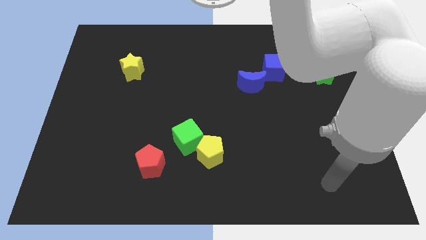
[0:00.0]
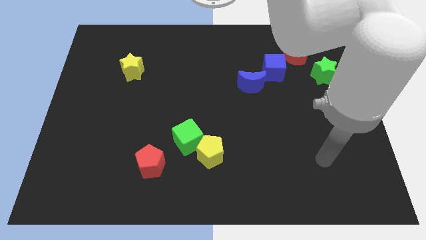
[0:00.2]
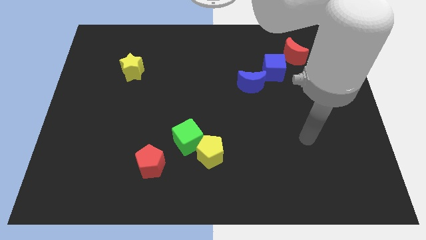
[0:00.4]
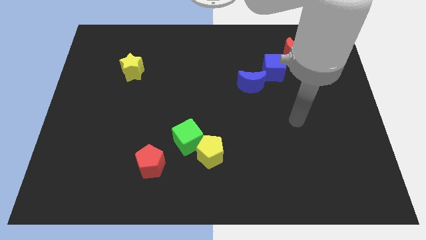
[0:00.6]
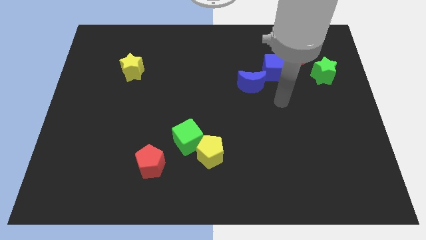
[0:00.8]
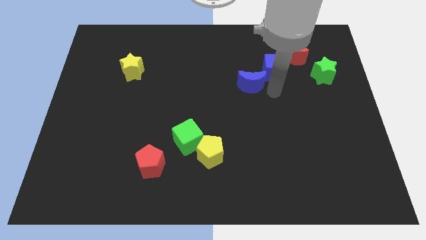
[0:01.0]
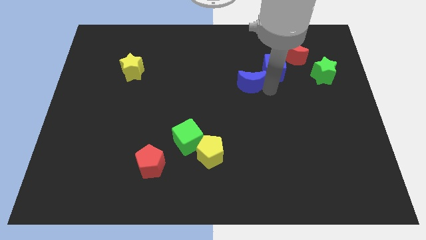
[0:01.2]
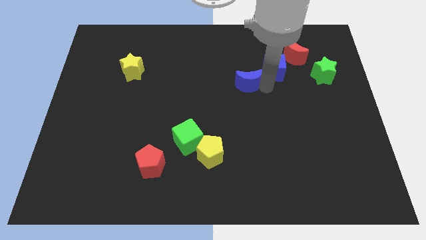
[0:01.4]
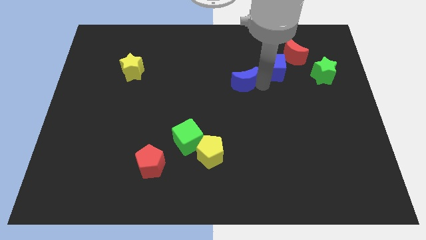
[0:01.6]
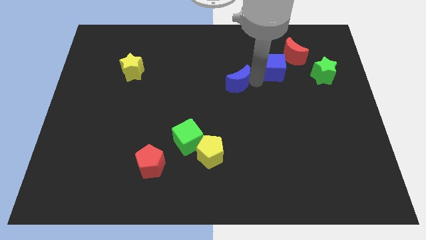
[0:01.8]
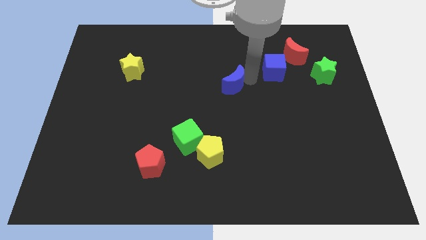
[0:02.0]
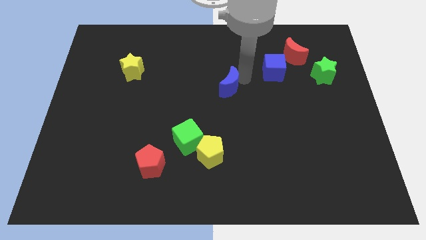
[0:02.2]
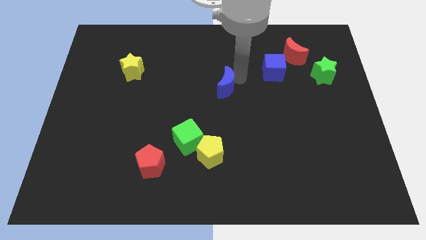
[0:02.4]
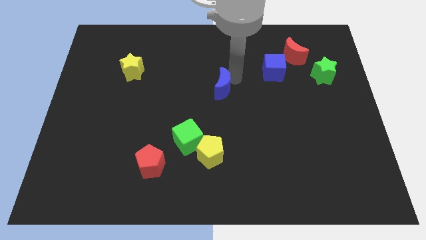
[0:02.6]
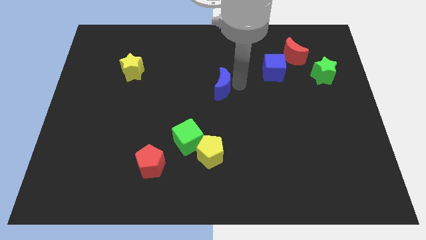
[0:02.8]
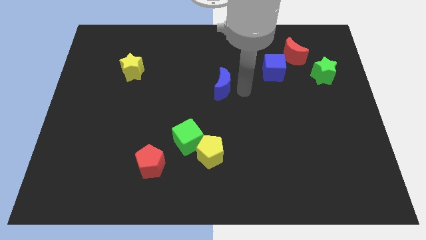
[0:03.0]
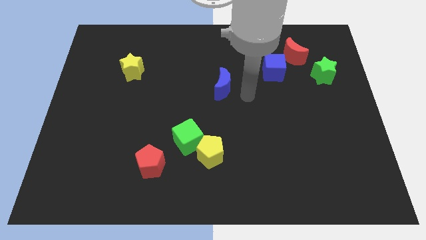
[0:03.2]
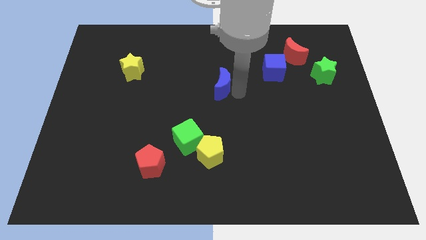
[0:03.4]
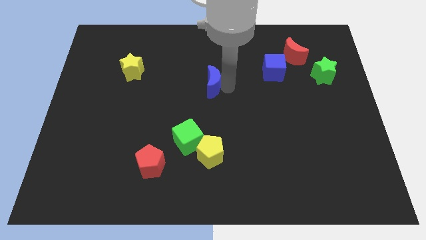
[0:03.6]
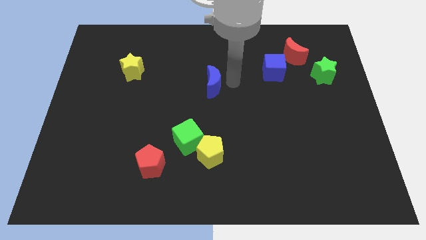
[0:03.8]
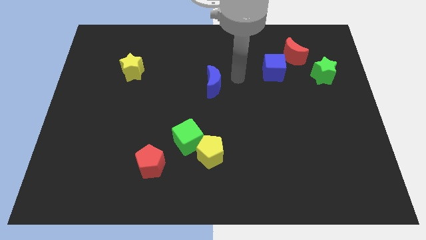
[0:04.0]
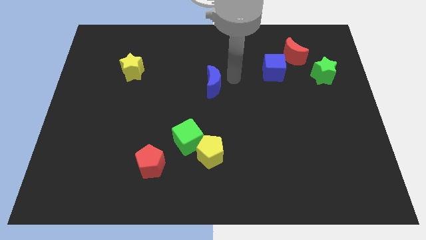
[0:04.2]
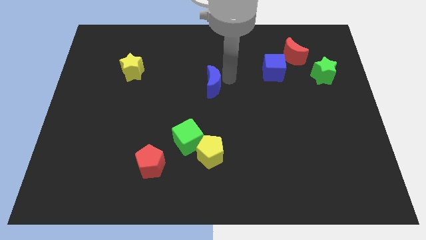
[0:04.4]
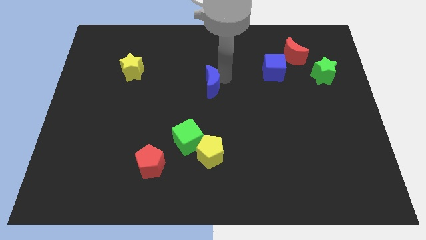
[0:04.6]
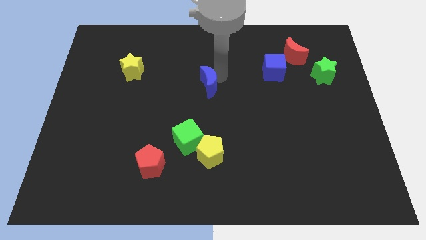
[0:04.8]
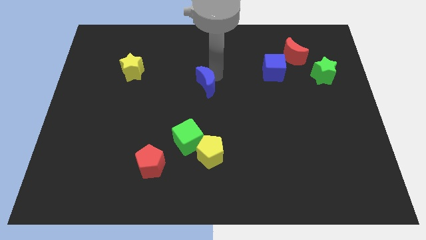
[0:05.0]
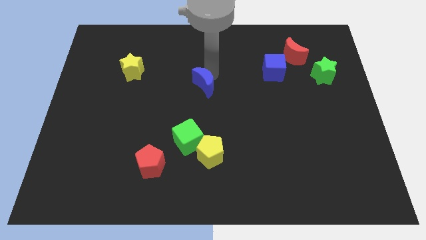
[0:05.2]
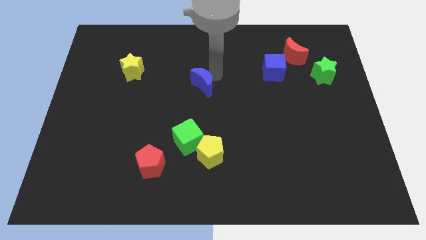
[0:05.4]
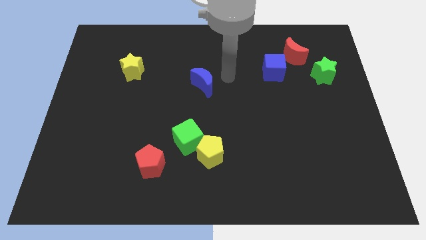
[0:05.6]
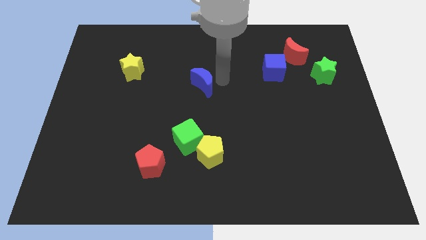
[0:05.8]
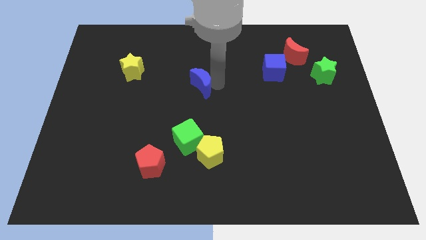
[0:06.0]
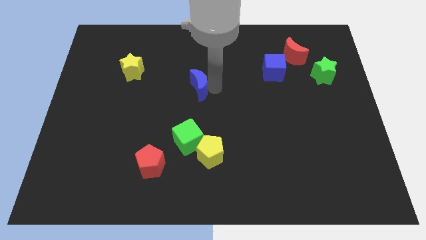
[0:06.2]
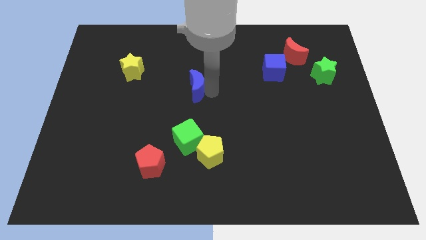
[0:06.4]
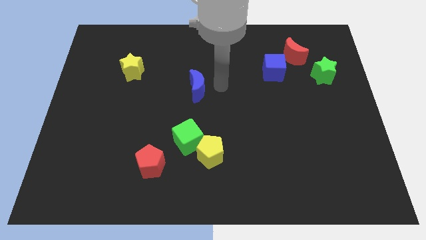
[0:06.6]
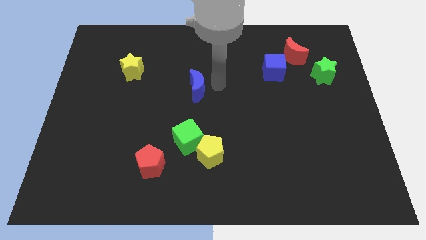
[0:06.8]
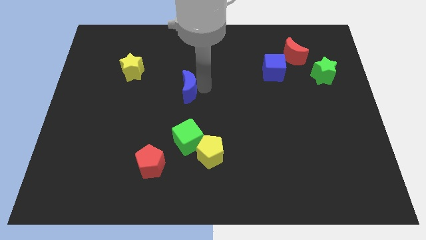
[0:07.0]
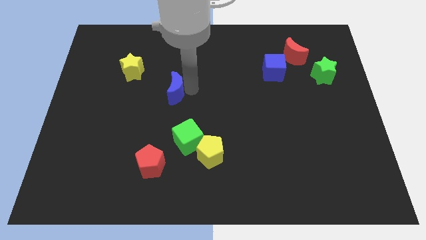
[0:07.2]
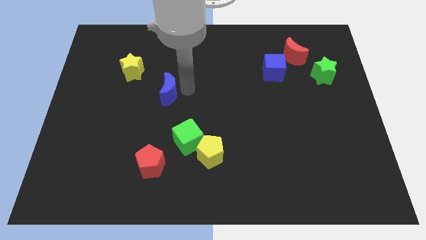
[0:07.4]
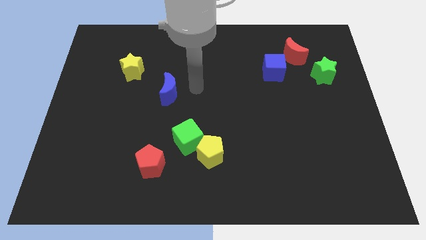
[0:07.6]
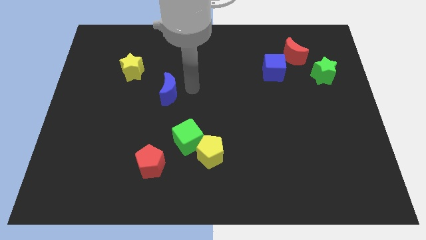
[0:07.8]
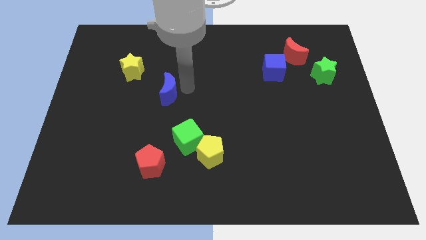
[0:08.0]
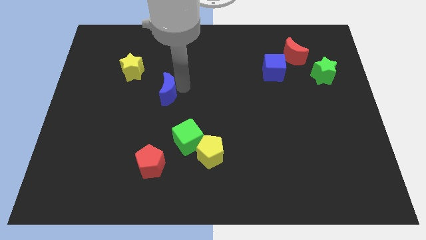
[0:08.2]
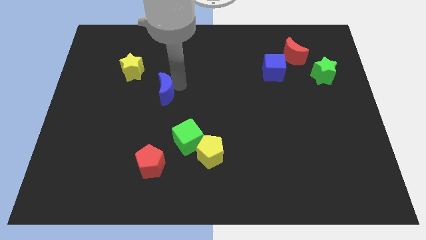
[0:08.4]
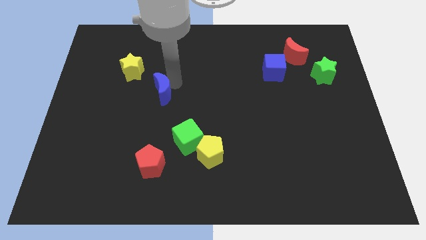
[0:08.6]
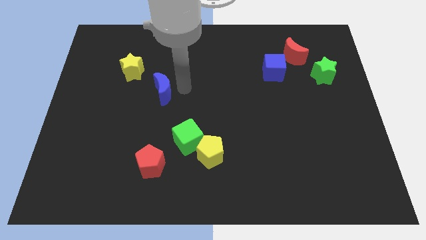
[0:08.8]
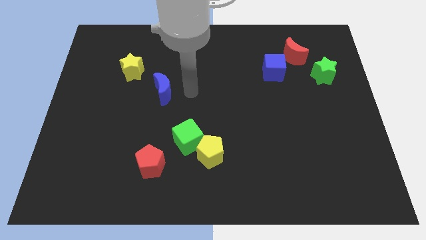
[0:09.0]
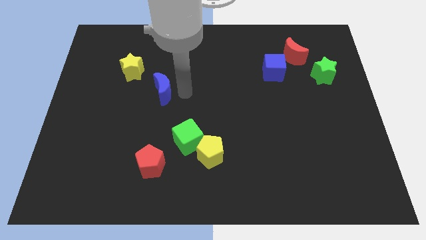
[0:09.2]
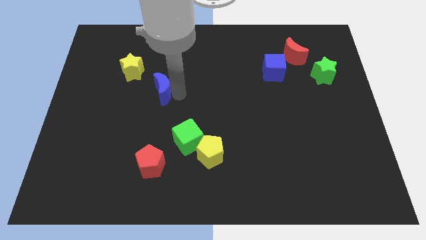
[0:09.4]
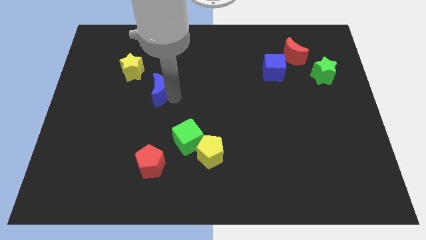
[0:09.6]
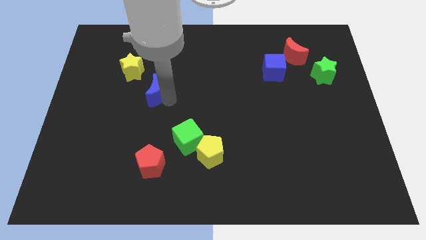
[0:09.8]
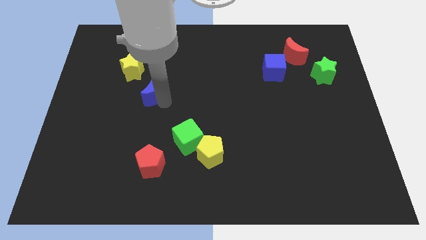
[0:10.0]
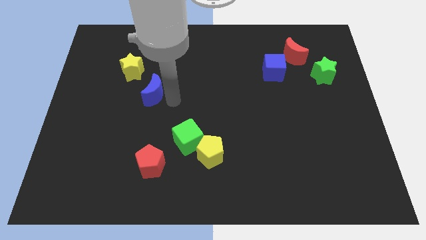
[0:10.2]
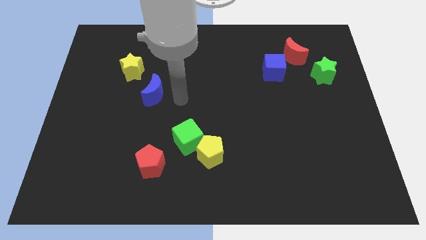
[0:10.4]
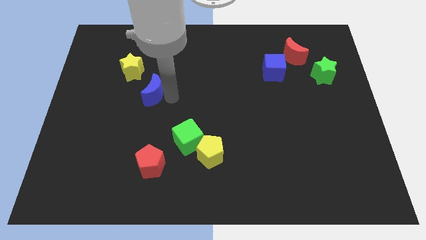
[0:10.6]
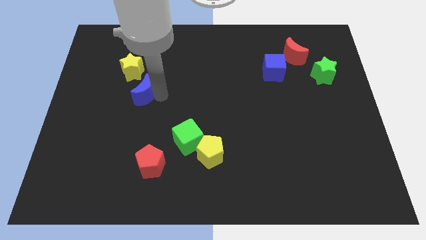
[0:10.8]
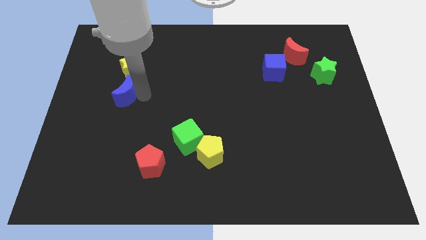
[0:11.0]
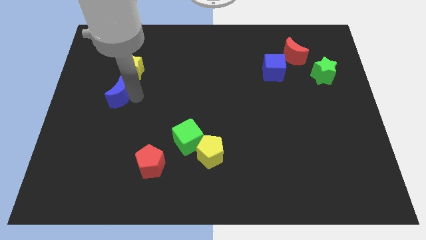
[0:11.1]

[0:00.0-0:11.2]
slide the blue moon to the bottom left side of the yellow star

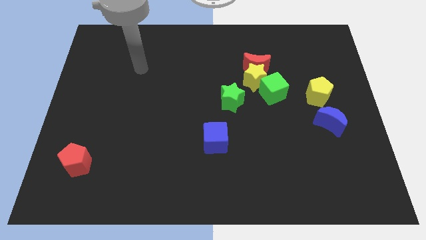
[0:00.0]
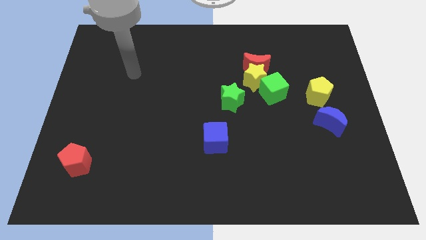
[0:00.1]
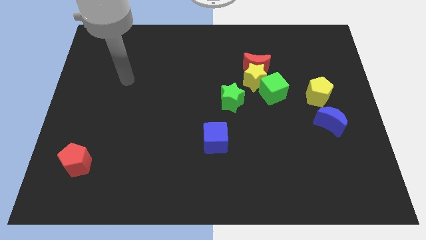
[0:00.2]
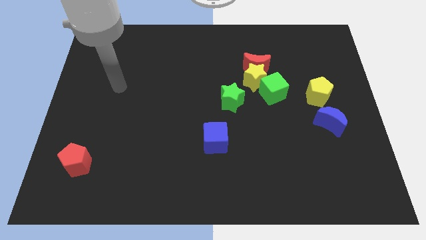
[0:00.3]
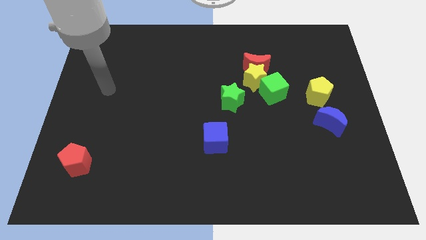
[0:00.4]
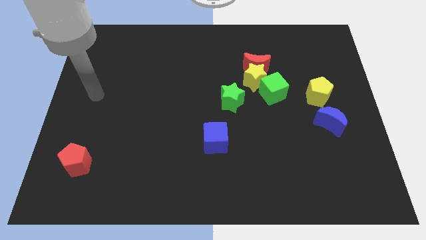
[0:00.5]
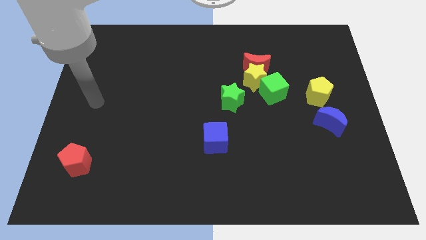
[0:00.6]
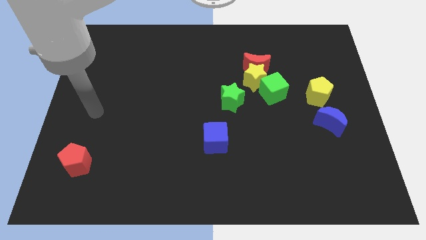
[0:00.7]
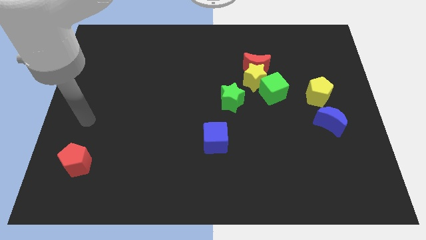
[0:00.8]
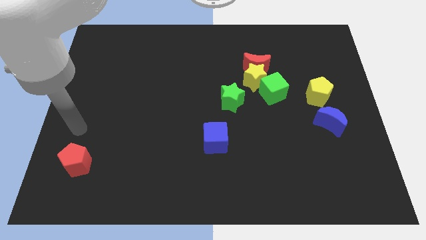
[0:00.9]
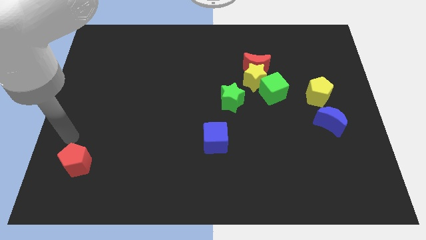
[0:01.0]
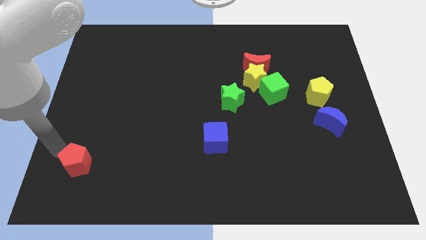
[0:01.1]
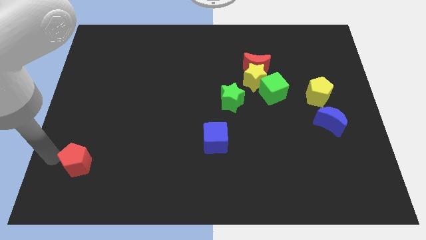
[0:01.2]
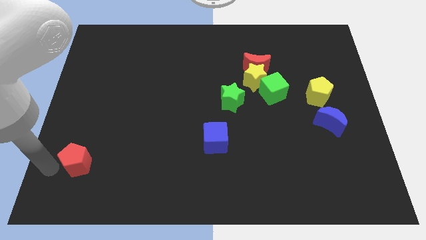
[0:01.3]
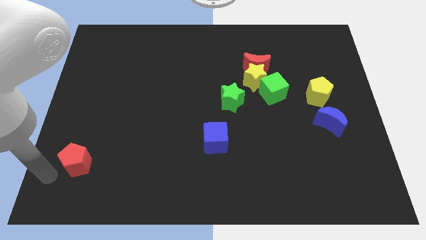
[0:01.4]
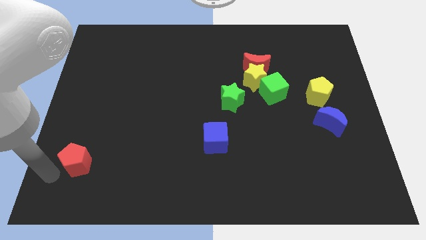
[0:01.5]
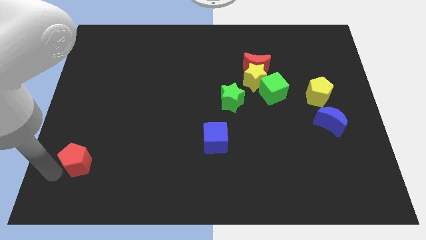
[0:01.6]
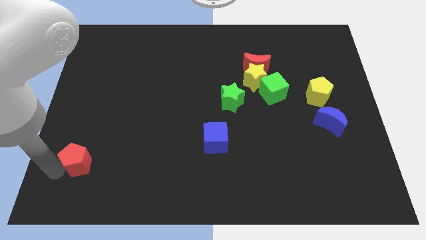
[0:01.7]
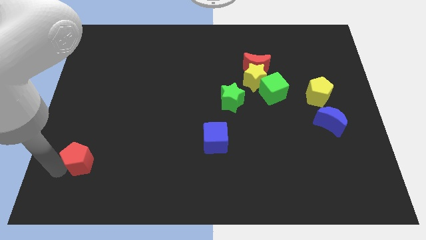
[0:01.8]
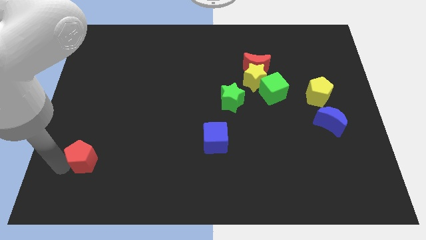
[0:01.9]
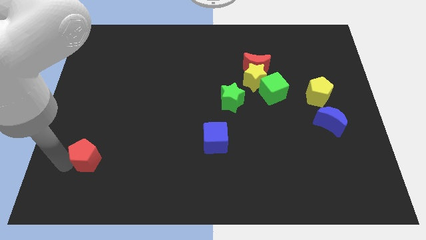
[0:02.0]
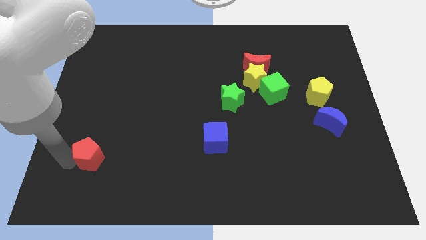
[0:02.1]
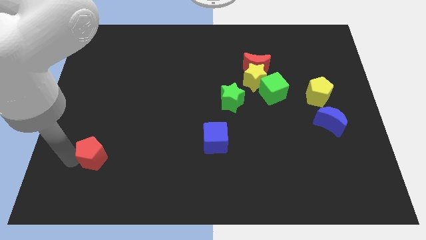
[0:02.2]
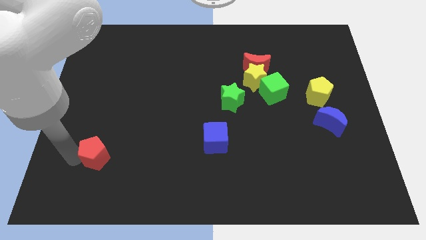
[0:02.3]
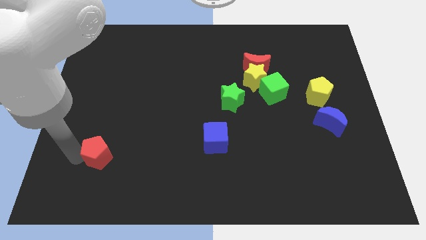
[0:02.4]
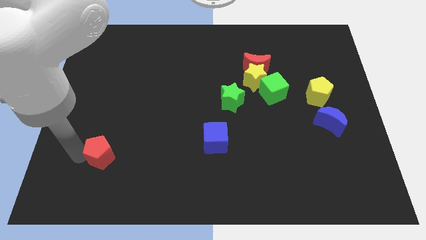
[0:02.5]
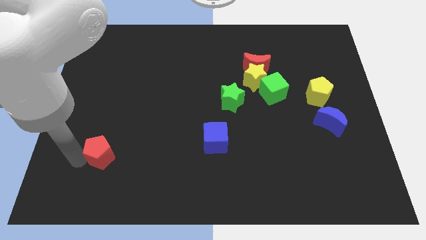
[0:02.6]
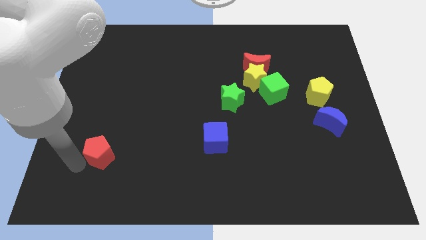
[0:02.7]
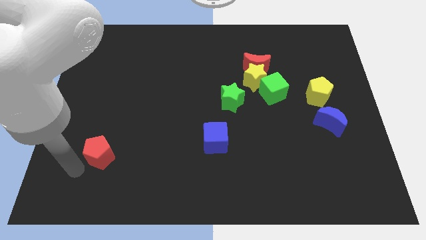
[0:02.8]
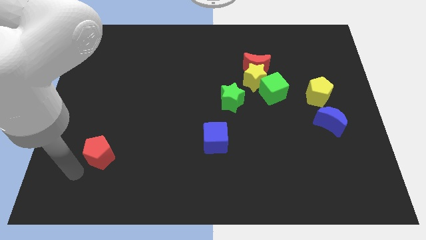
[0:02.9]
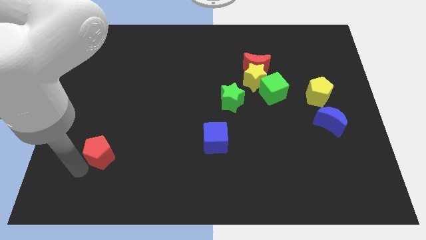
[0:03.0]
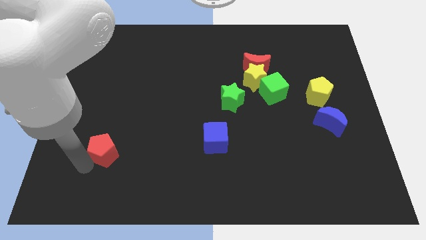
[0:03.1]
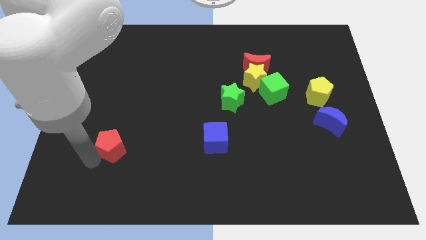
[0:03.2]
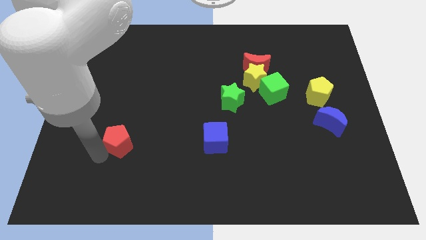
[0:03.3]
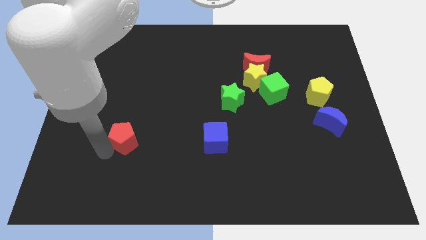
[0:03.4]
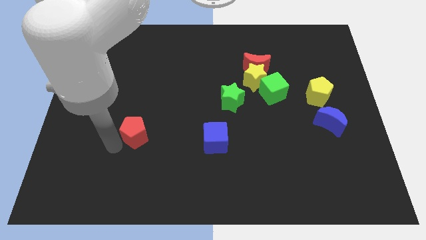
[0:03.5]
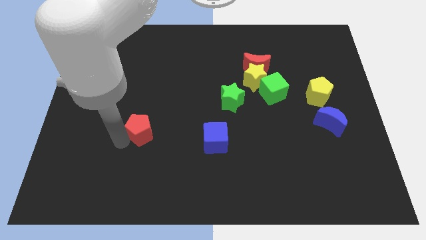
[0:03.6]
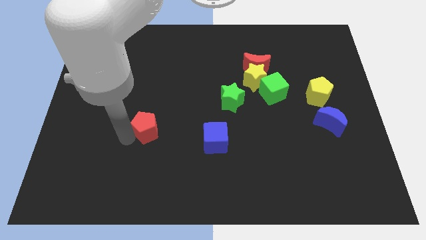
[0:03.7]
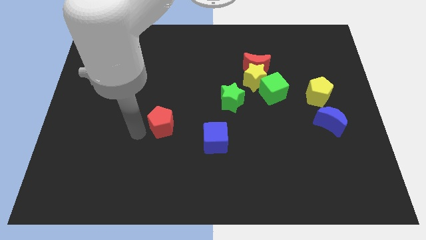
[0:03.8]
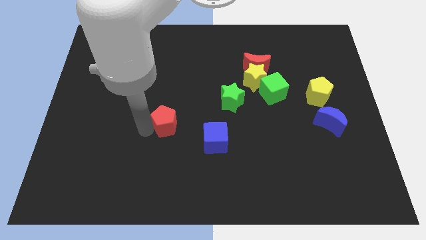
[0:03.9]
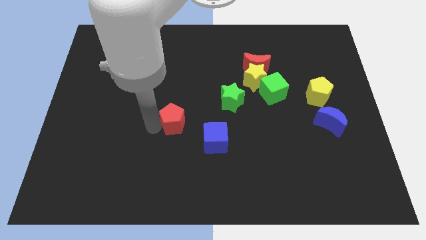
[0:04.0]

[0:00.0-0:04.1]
put the red pentagon diagonally up and to the left of the blue cube
